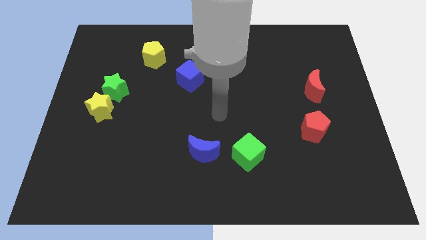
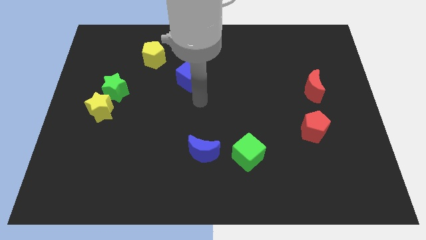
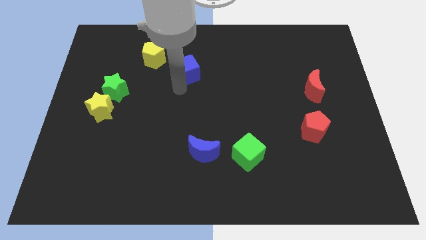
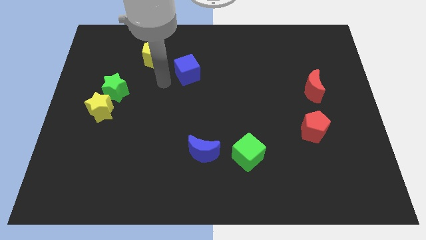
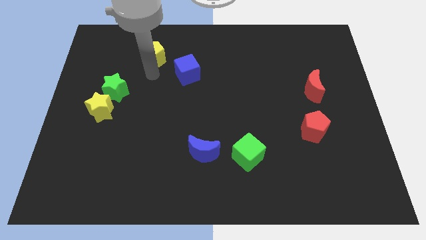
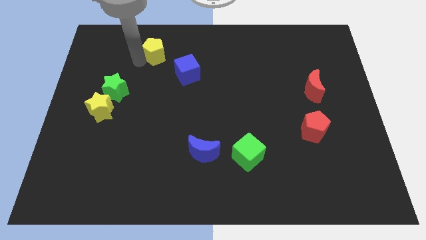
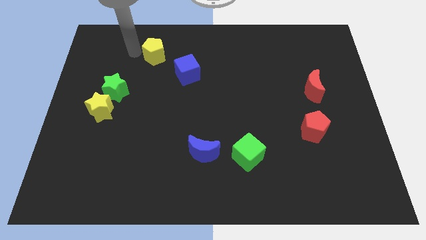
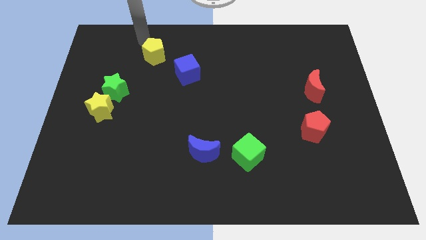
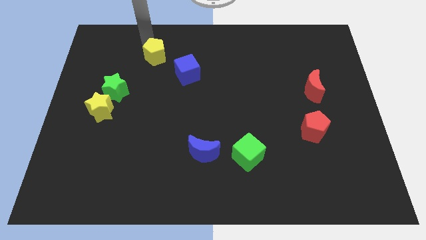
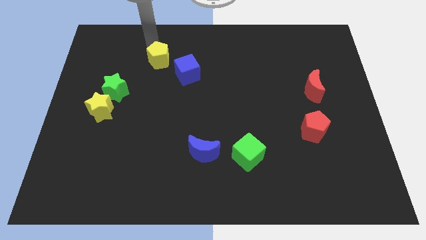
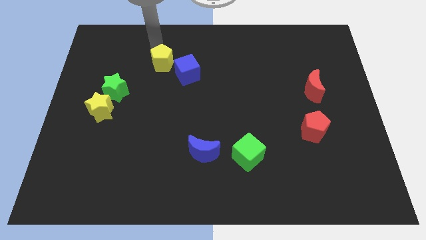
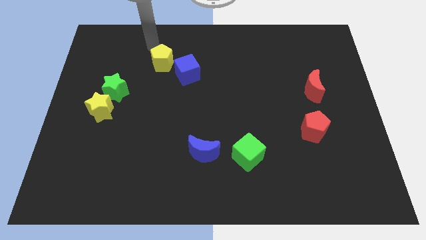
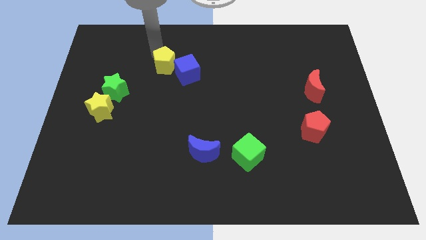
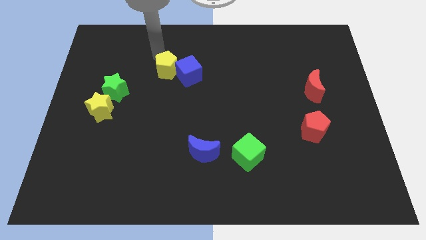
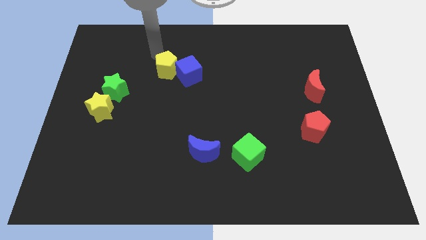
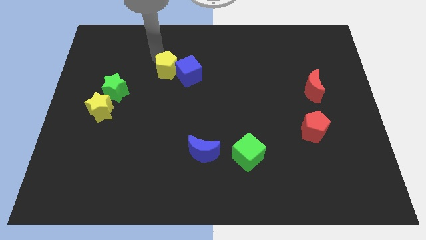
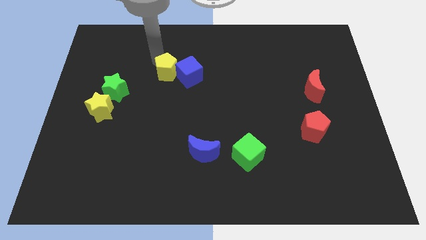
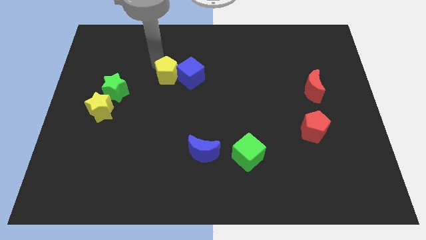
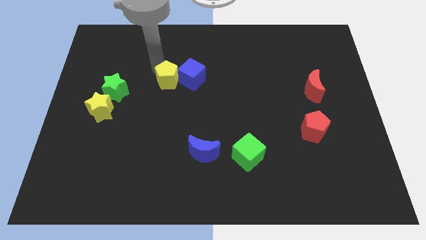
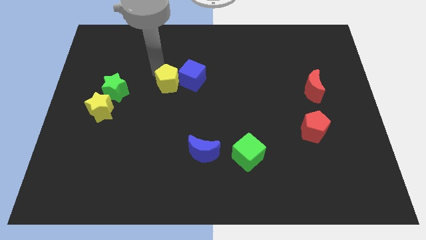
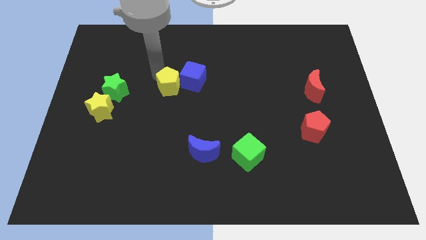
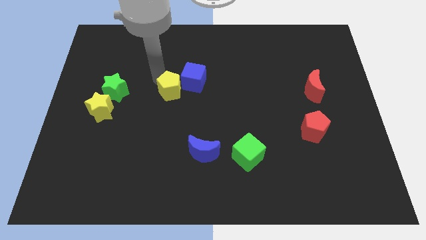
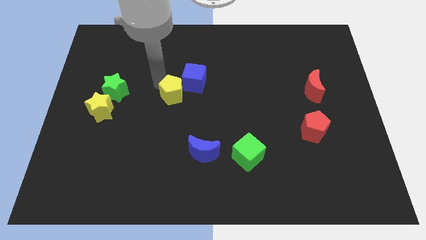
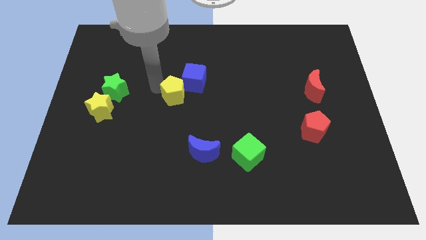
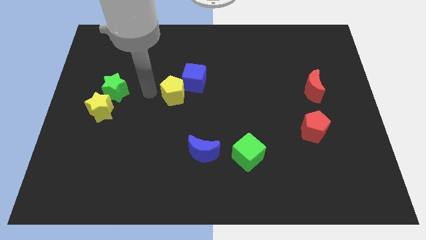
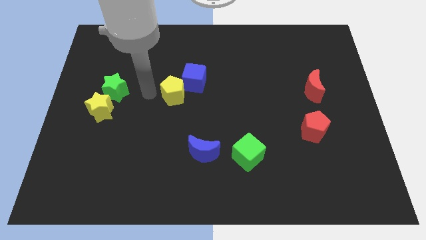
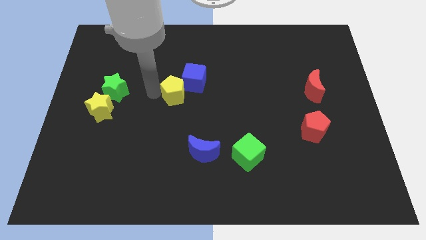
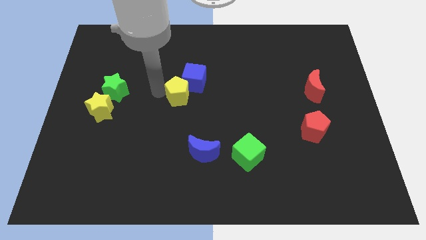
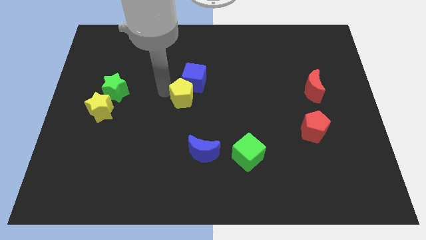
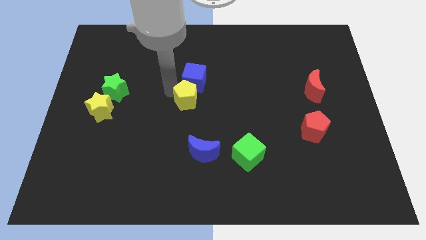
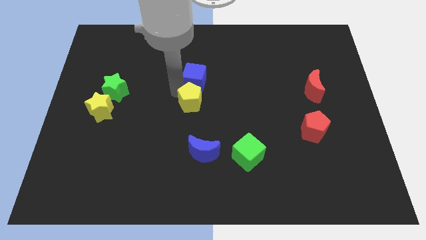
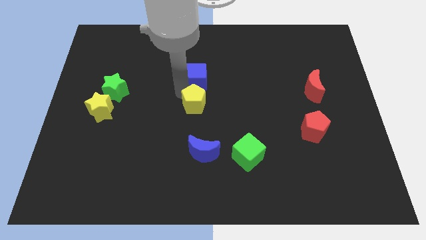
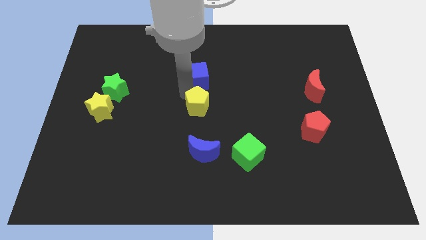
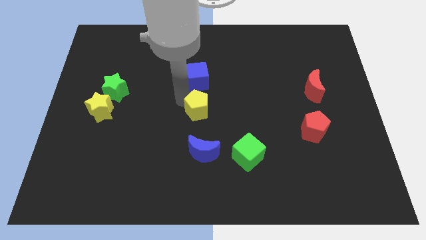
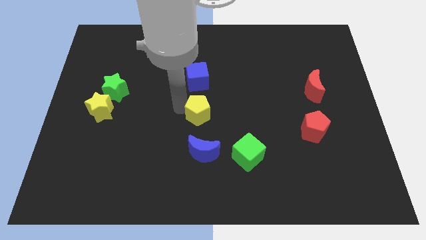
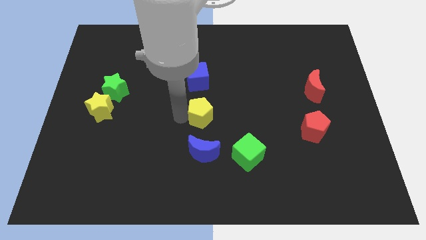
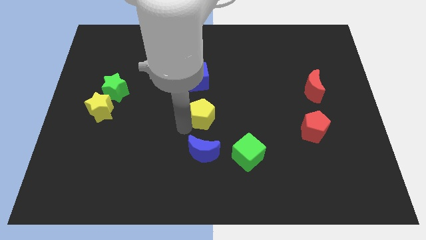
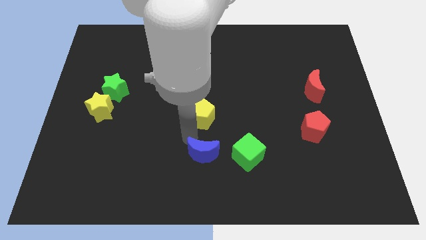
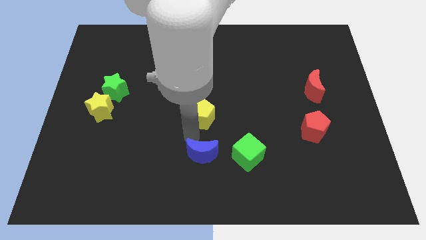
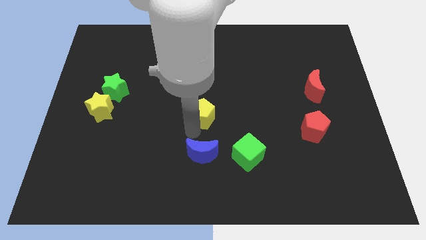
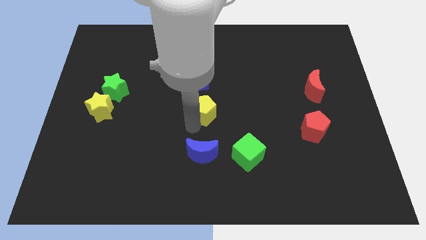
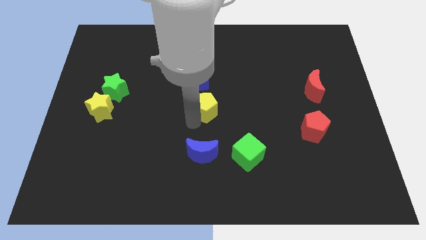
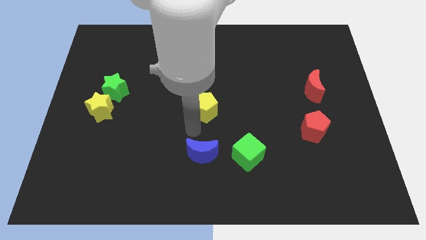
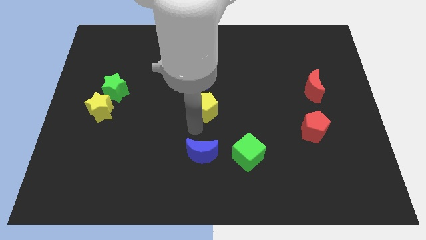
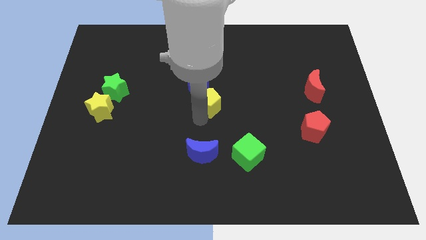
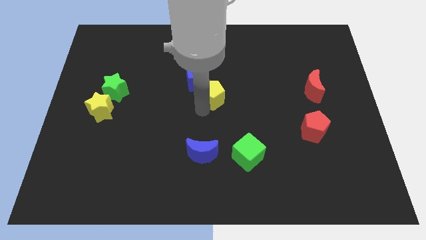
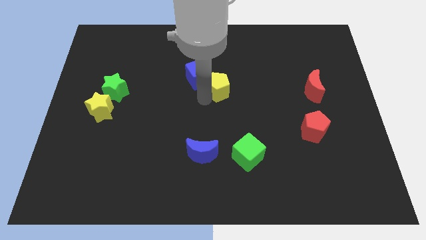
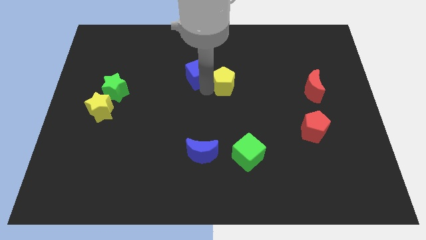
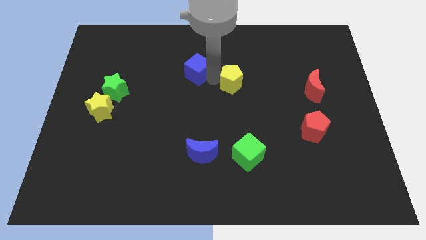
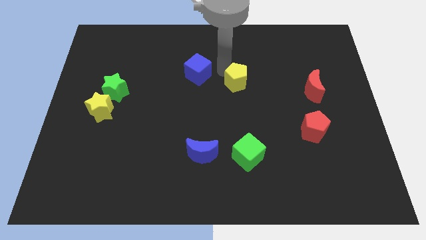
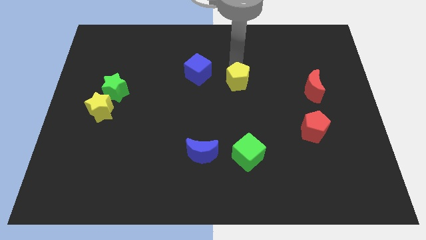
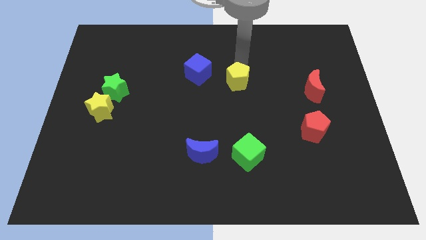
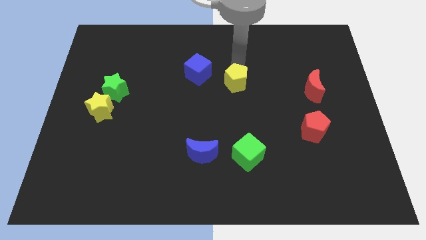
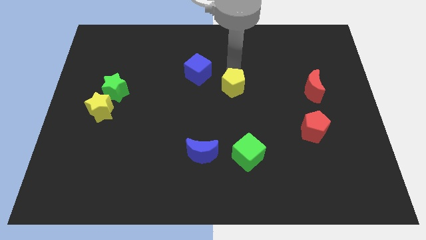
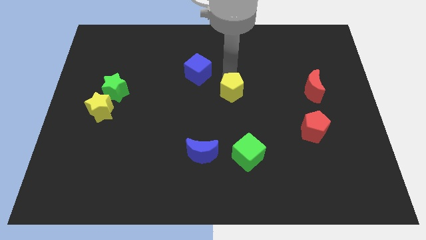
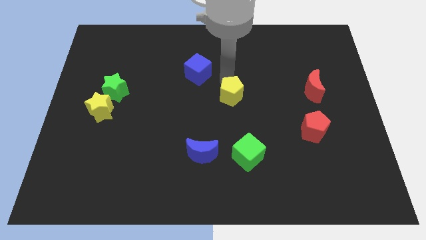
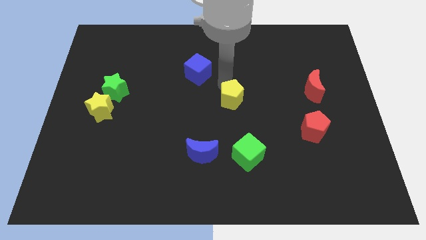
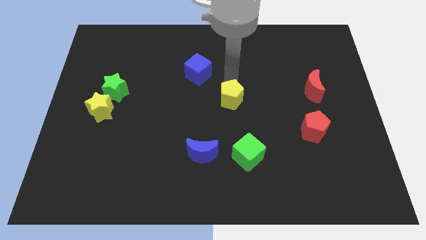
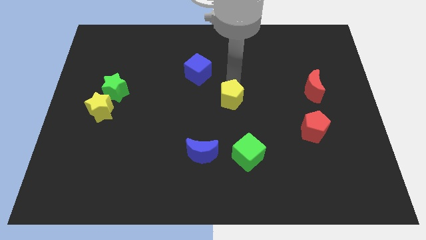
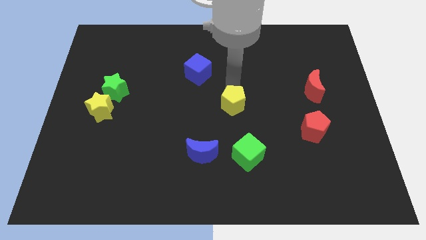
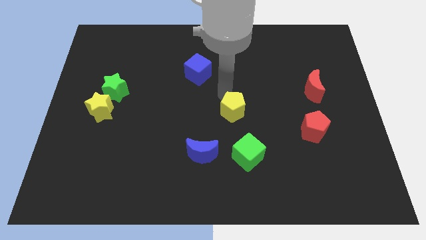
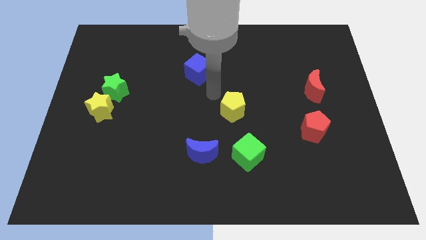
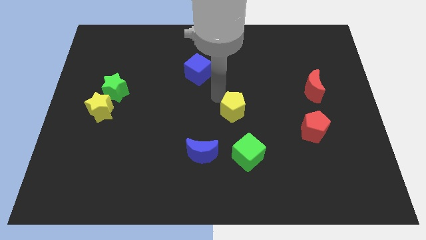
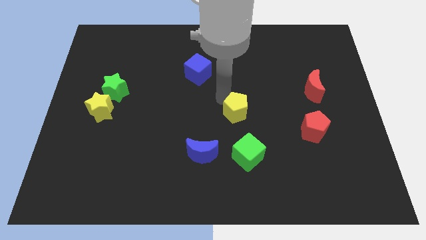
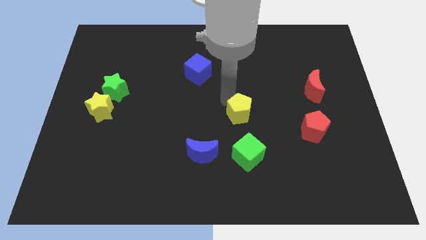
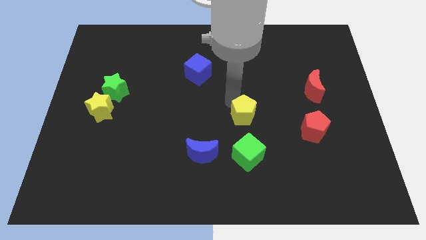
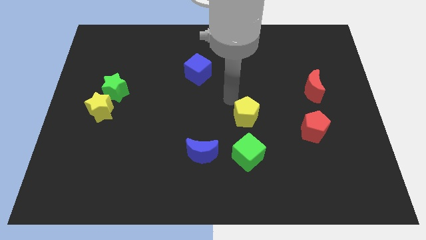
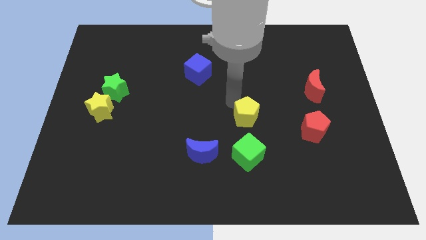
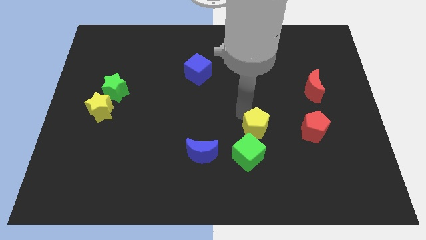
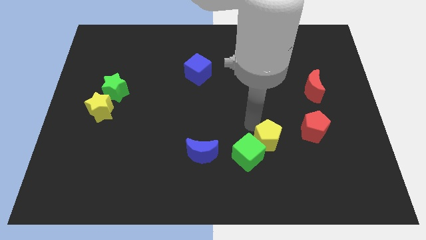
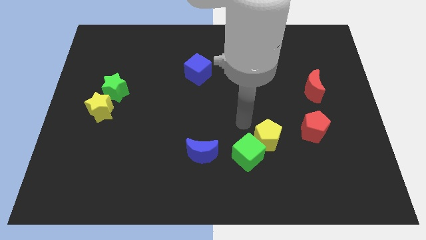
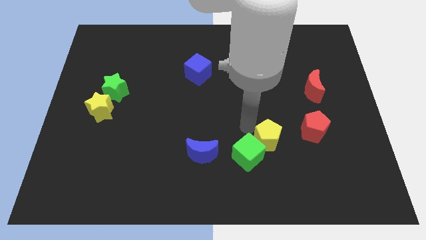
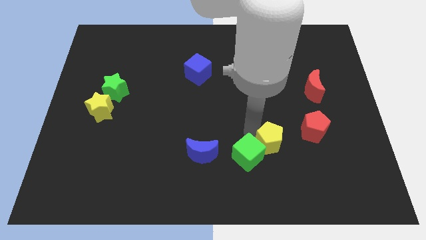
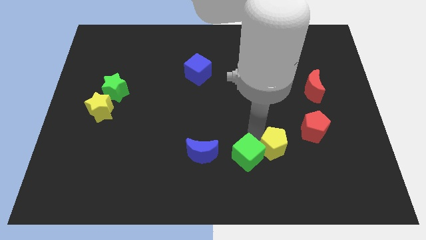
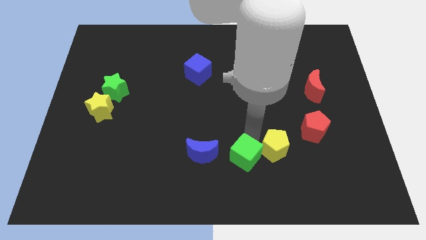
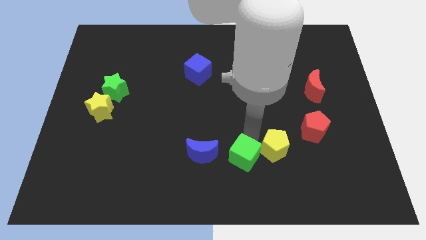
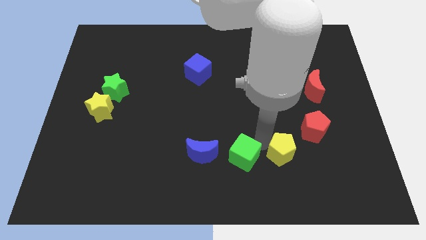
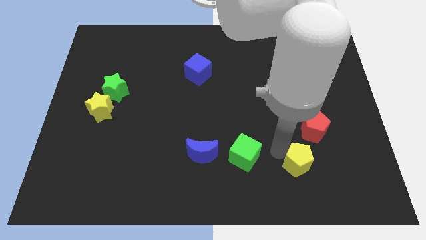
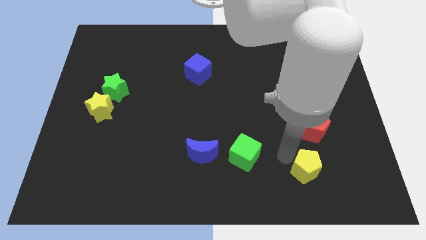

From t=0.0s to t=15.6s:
push the yellow pentagon below the red pentagon
